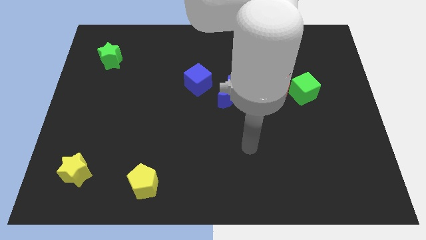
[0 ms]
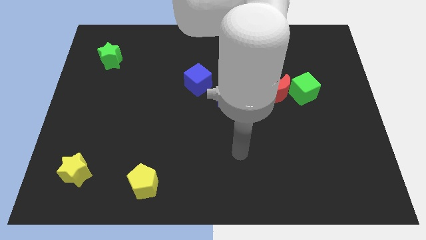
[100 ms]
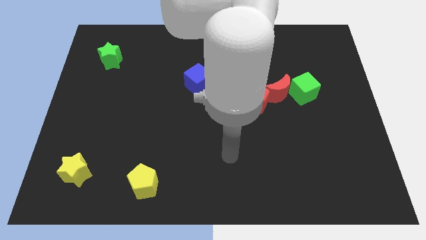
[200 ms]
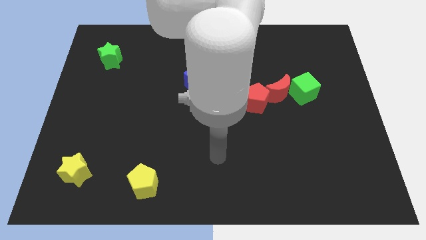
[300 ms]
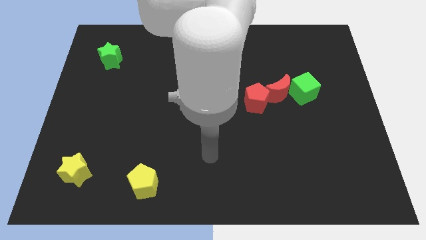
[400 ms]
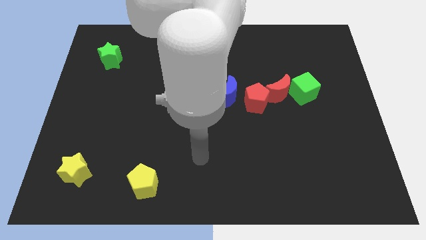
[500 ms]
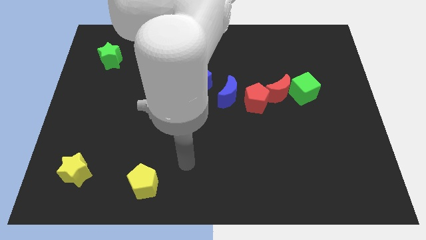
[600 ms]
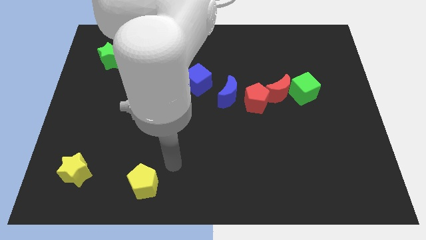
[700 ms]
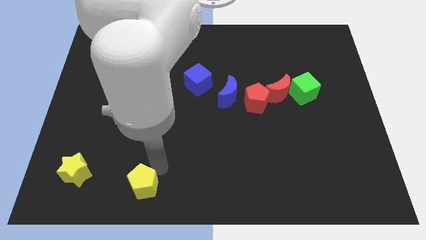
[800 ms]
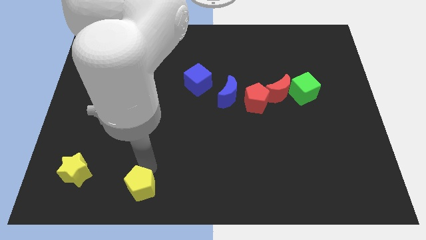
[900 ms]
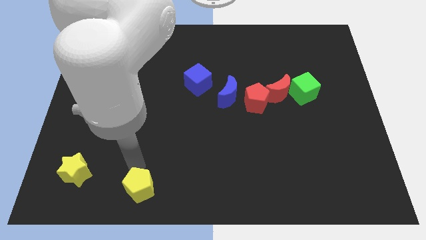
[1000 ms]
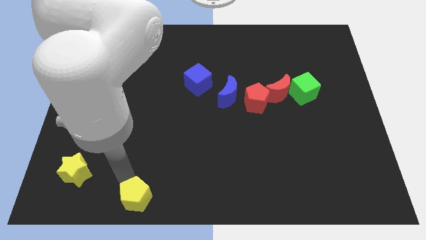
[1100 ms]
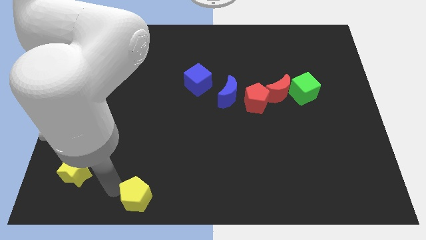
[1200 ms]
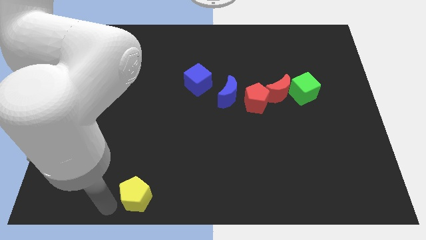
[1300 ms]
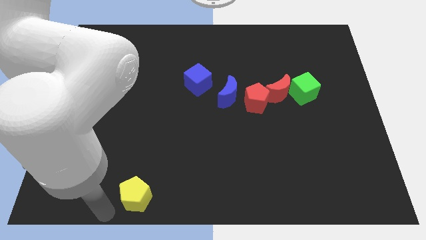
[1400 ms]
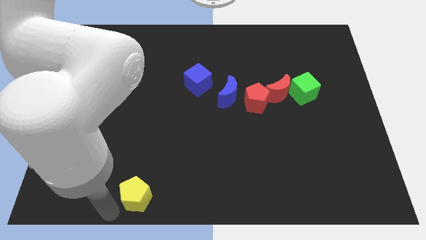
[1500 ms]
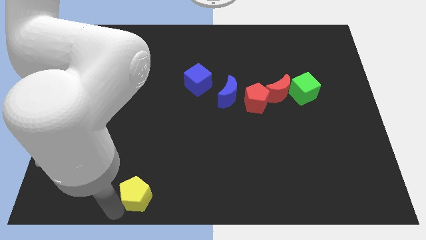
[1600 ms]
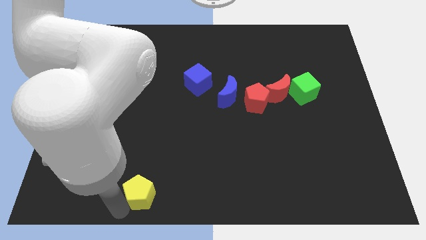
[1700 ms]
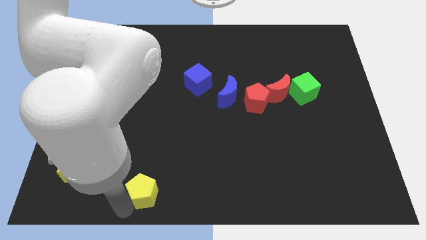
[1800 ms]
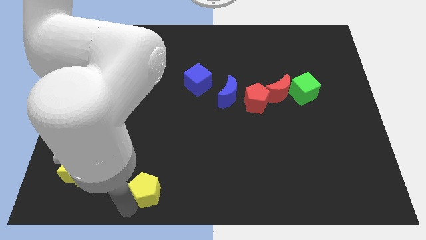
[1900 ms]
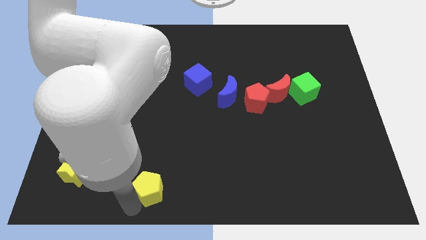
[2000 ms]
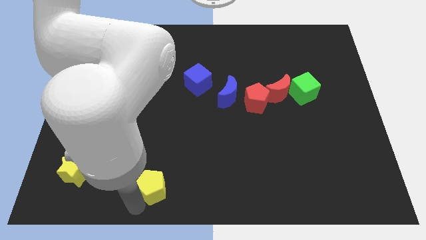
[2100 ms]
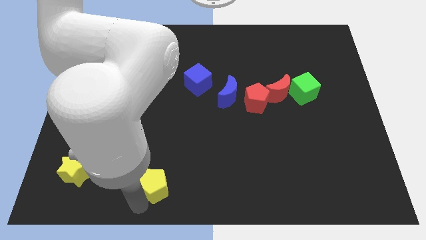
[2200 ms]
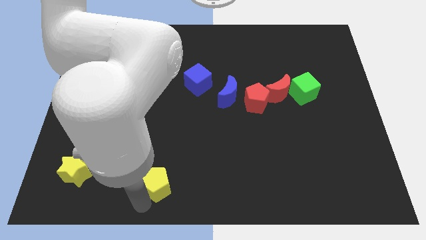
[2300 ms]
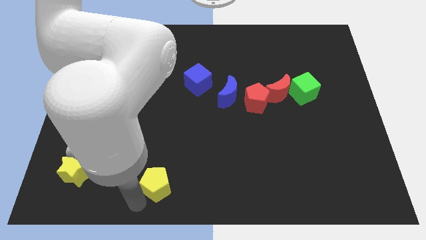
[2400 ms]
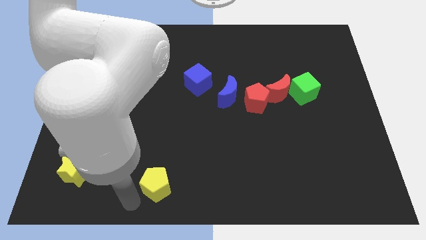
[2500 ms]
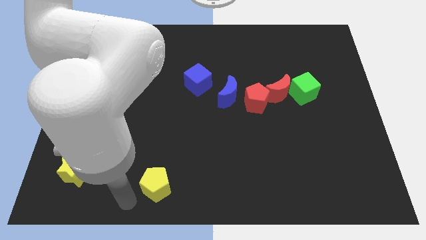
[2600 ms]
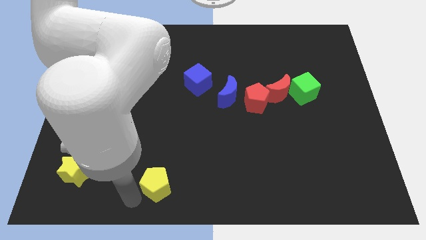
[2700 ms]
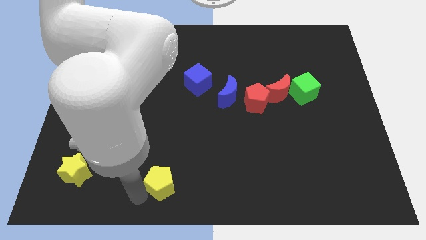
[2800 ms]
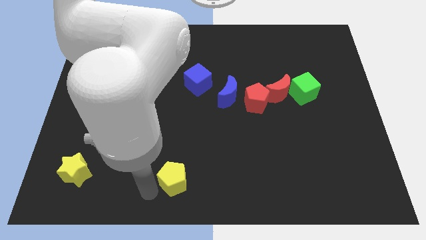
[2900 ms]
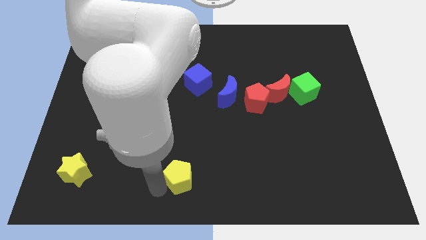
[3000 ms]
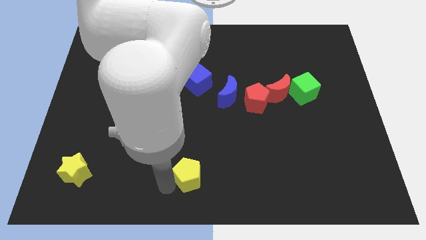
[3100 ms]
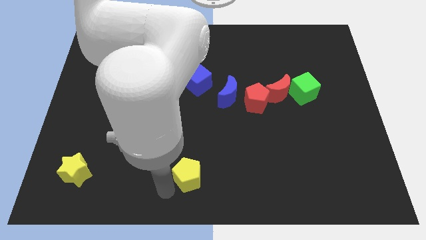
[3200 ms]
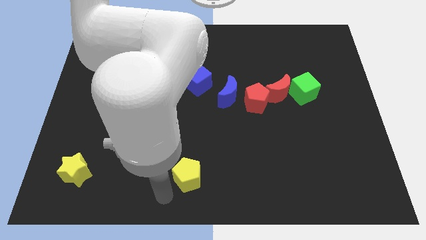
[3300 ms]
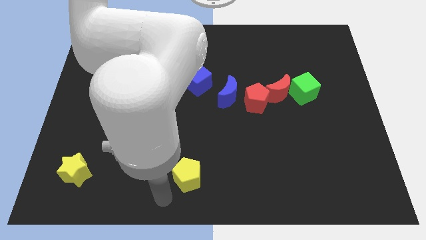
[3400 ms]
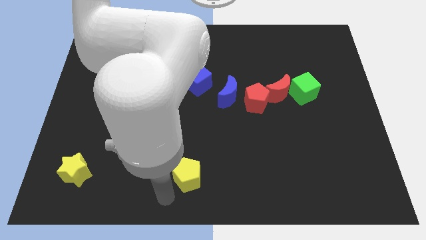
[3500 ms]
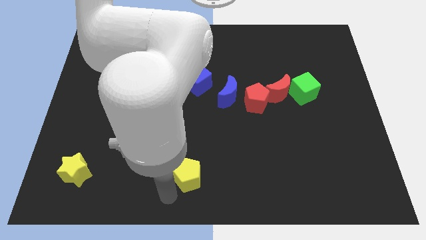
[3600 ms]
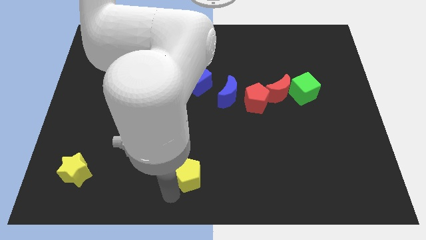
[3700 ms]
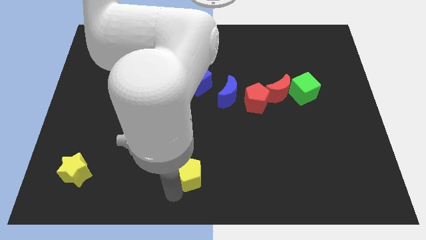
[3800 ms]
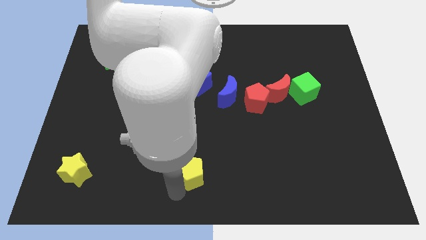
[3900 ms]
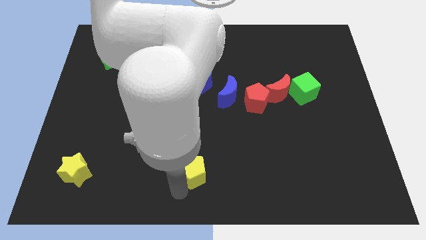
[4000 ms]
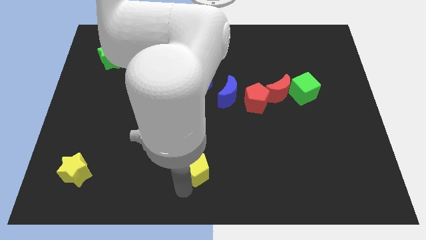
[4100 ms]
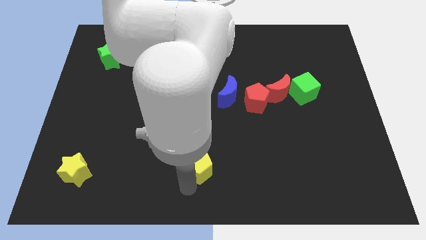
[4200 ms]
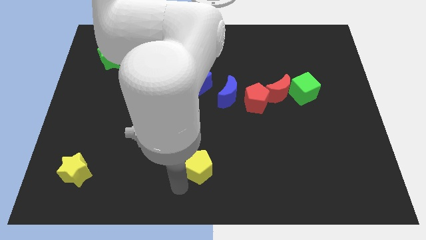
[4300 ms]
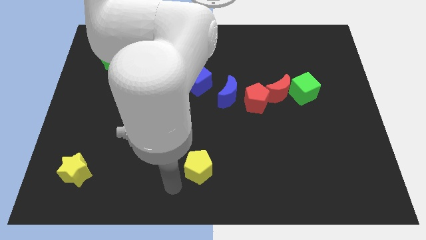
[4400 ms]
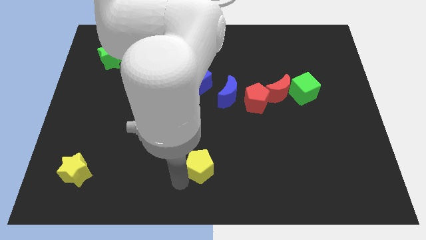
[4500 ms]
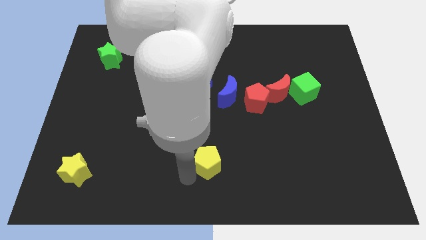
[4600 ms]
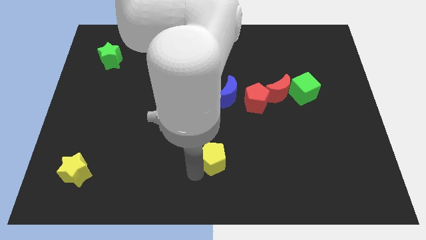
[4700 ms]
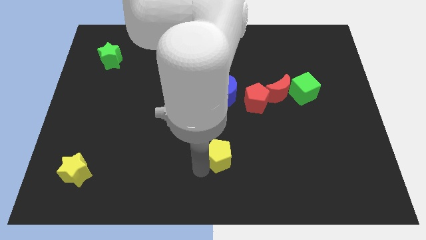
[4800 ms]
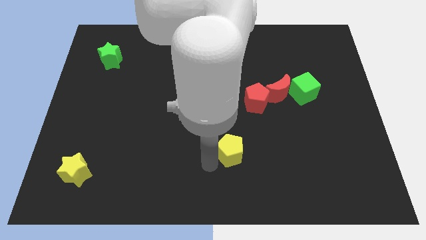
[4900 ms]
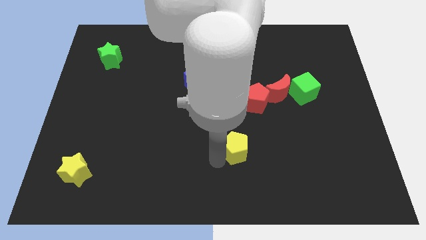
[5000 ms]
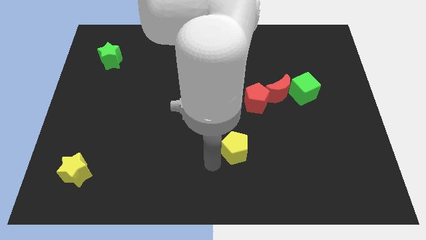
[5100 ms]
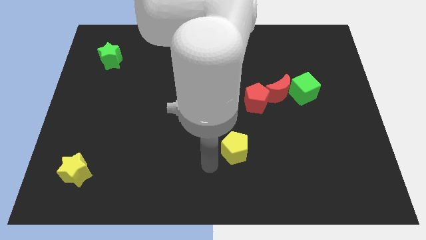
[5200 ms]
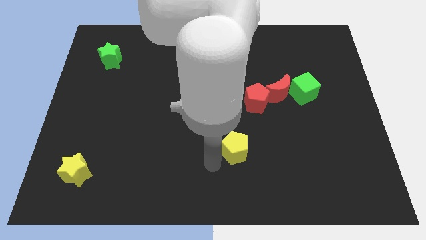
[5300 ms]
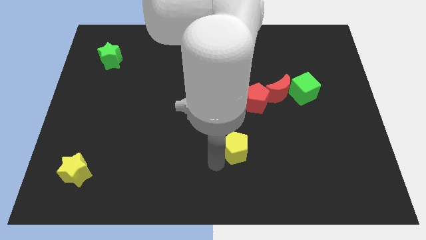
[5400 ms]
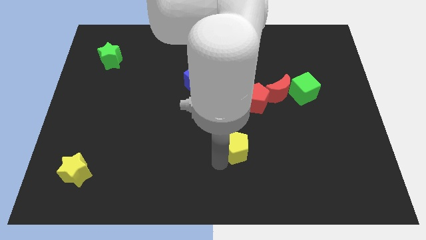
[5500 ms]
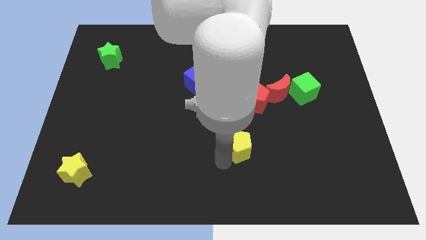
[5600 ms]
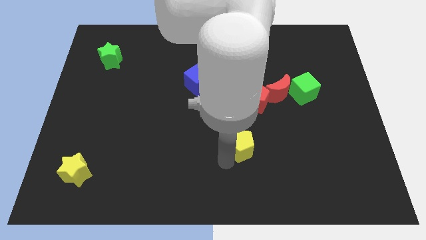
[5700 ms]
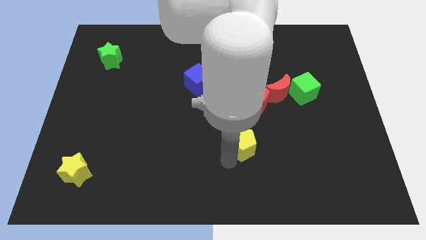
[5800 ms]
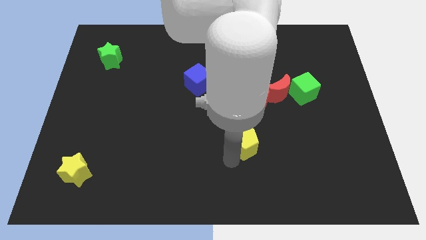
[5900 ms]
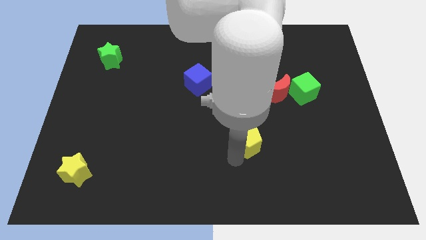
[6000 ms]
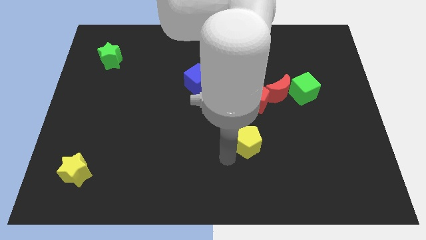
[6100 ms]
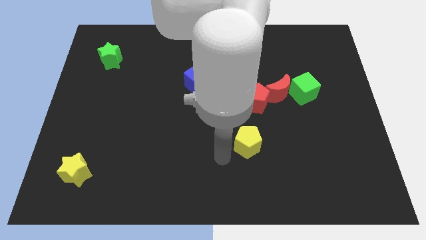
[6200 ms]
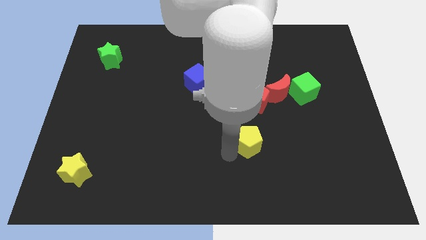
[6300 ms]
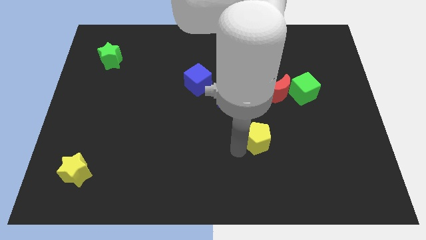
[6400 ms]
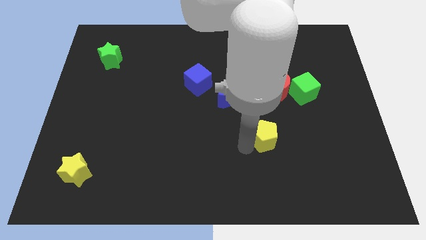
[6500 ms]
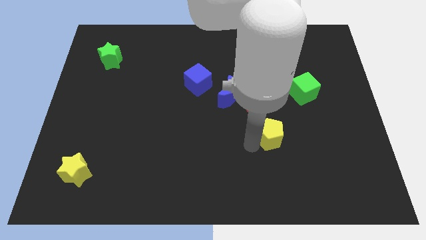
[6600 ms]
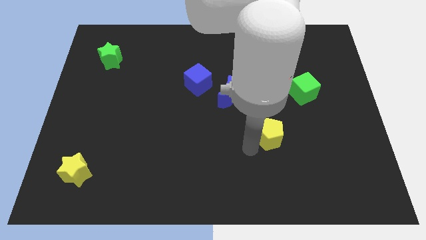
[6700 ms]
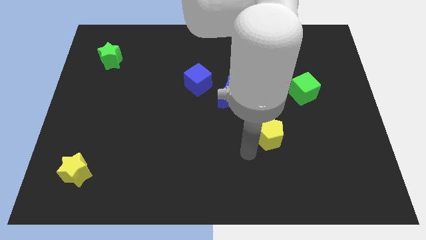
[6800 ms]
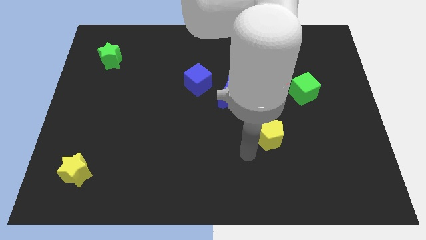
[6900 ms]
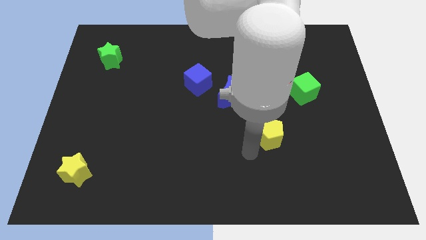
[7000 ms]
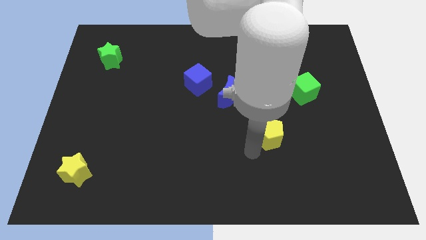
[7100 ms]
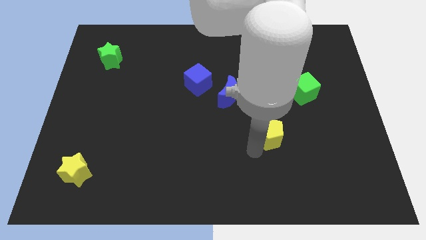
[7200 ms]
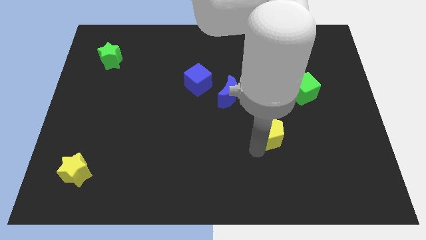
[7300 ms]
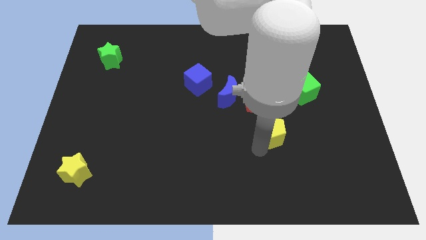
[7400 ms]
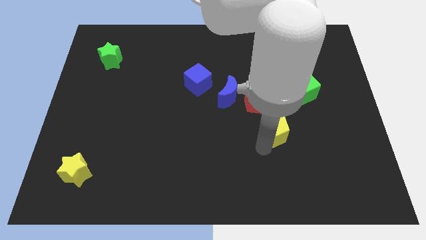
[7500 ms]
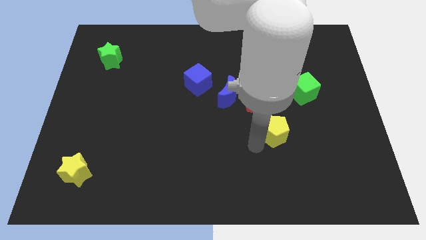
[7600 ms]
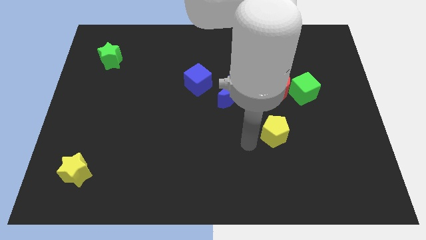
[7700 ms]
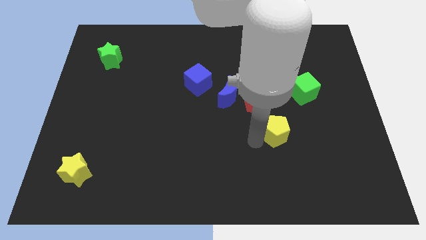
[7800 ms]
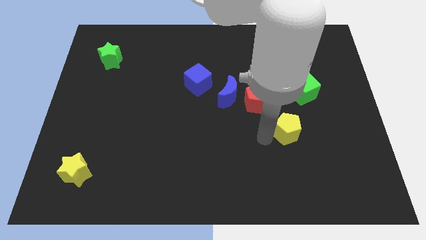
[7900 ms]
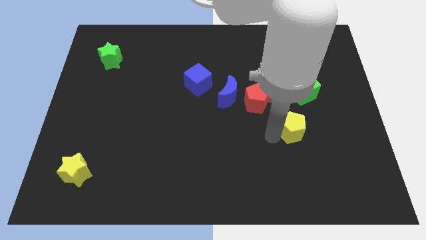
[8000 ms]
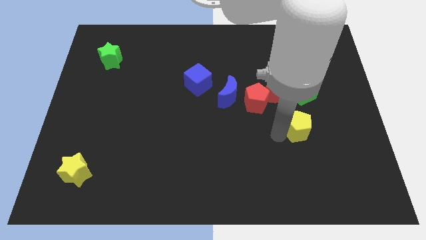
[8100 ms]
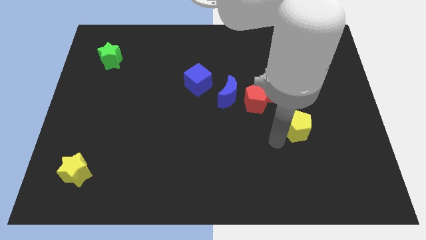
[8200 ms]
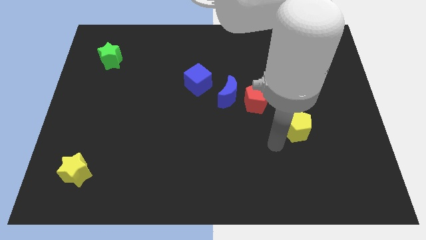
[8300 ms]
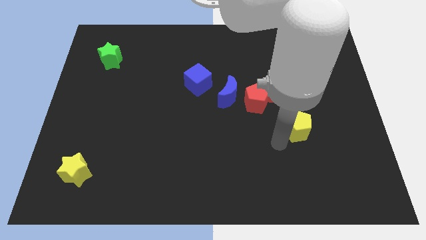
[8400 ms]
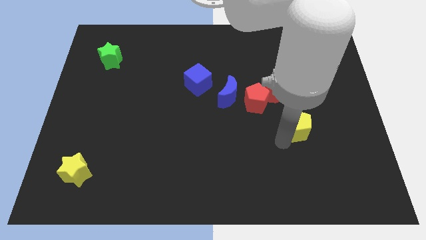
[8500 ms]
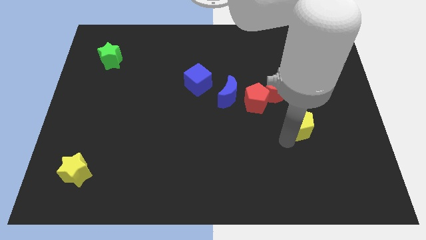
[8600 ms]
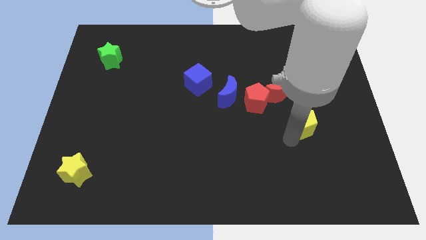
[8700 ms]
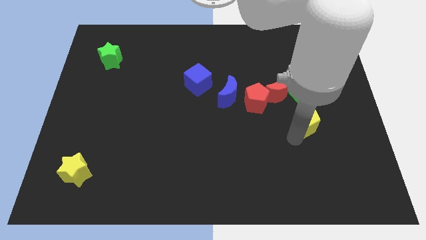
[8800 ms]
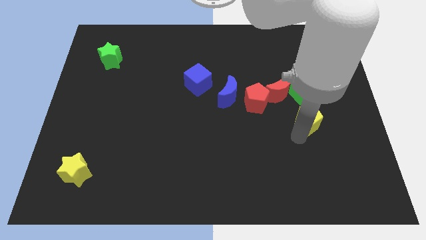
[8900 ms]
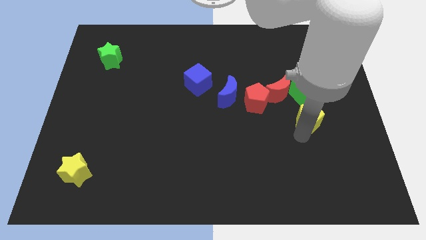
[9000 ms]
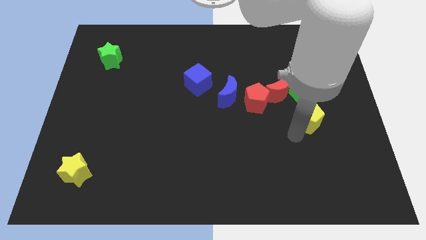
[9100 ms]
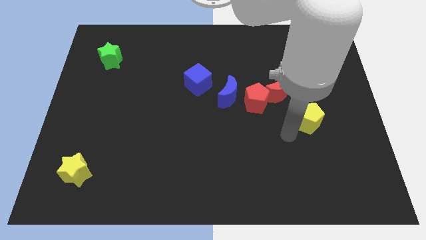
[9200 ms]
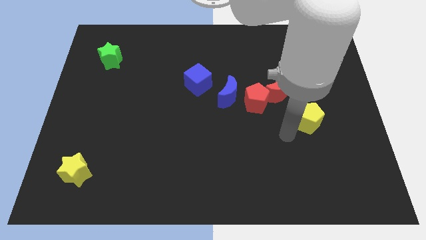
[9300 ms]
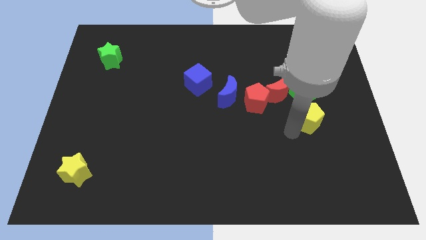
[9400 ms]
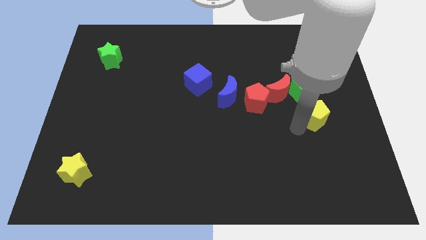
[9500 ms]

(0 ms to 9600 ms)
put the yellow pentagon to the bottom right side of the green cube
